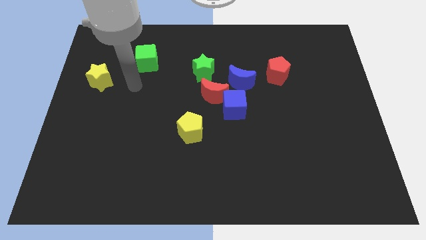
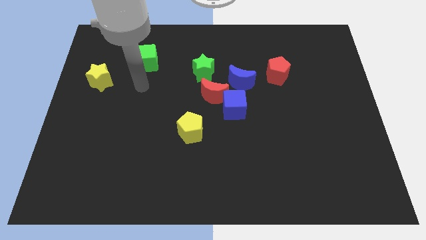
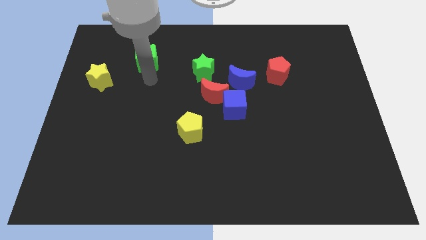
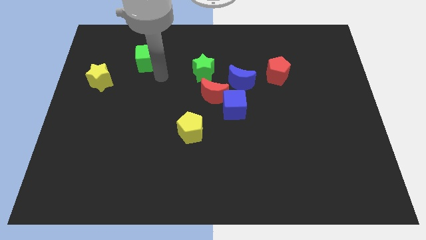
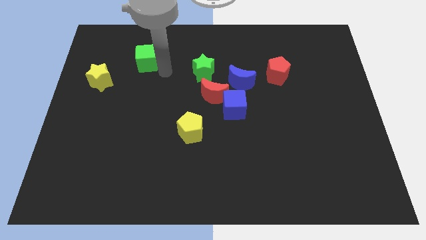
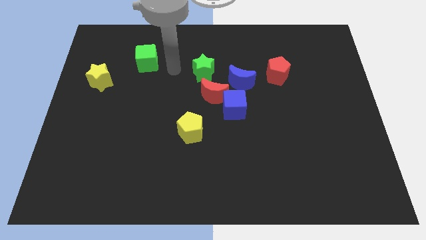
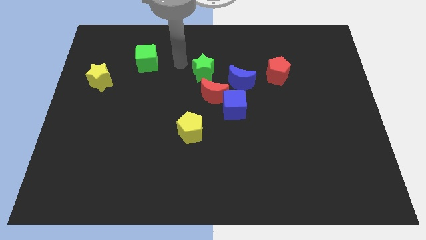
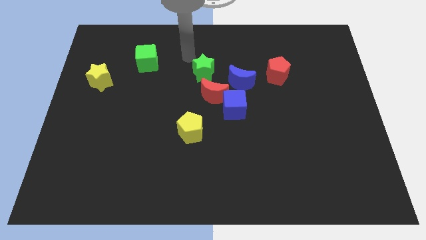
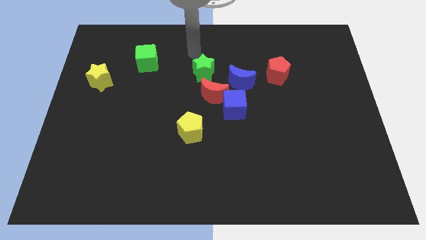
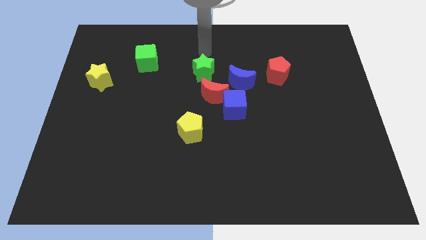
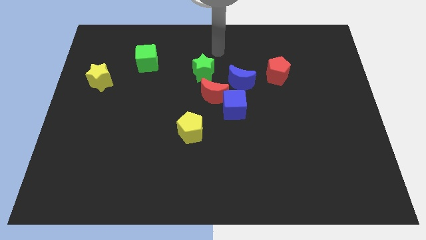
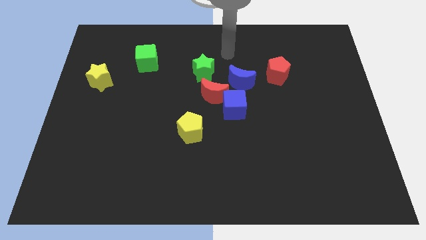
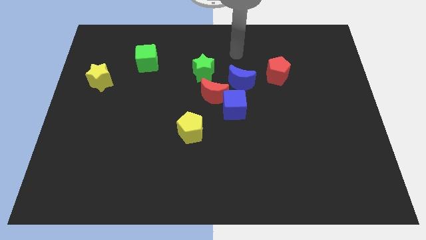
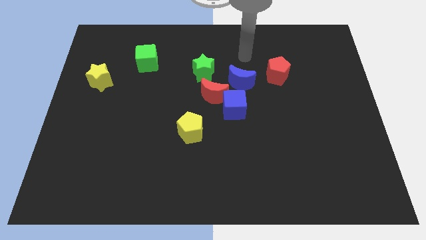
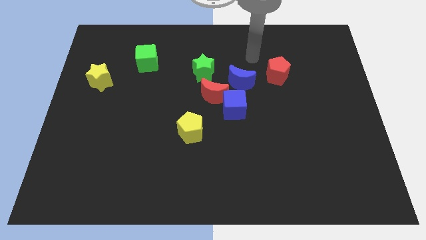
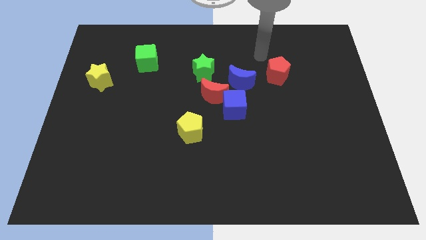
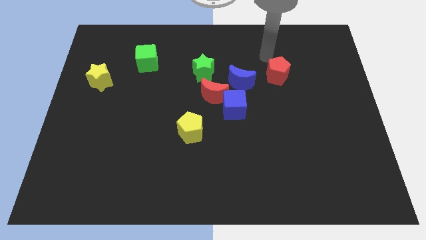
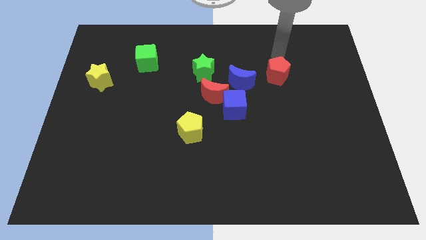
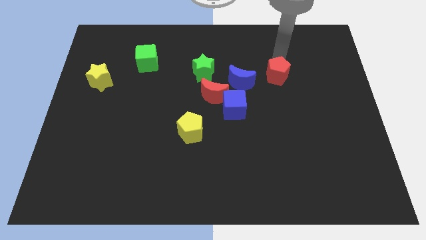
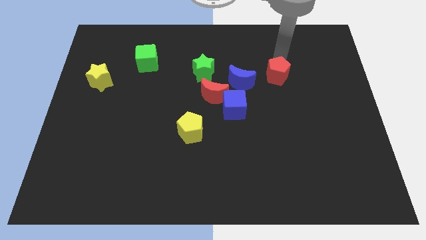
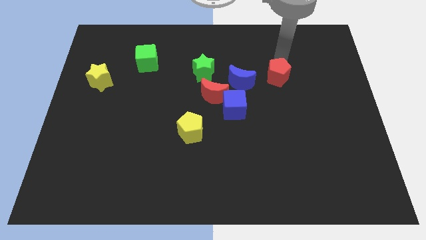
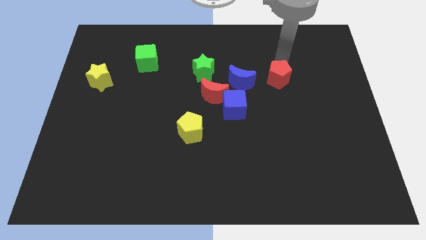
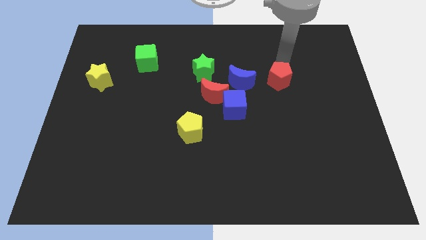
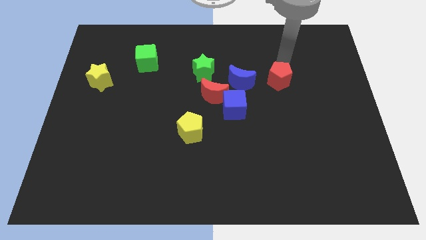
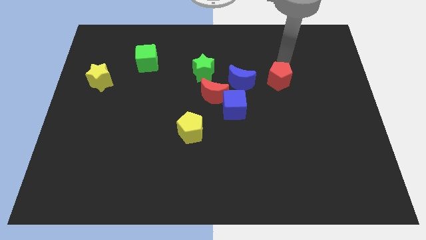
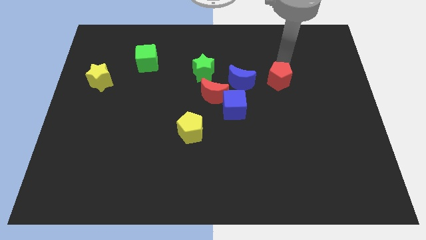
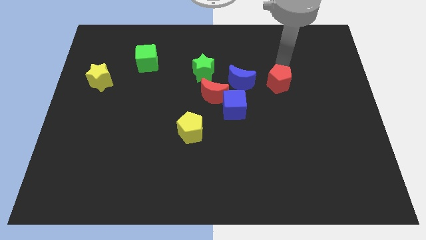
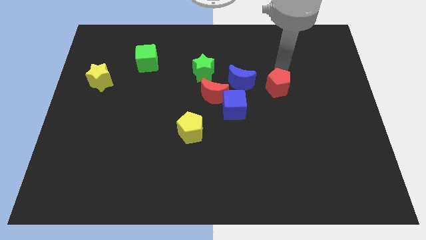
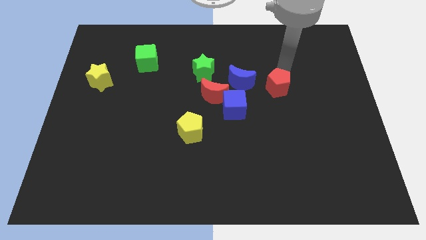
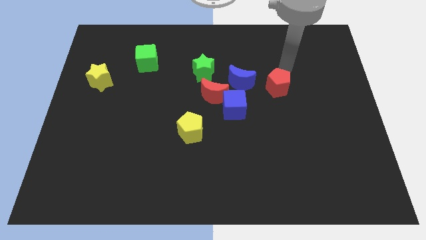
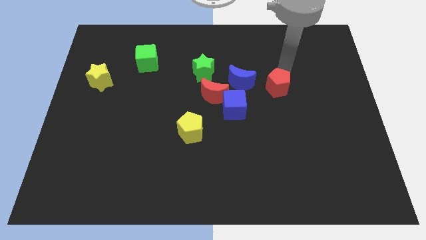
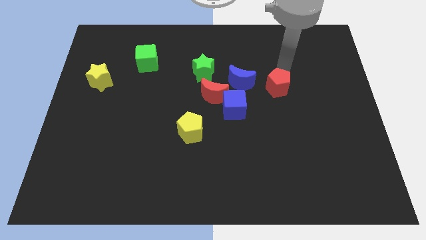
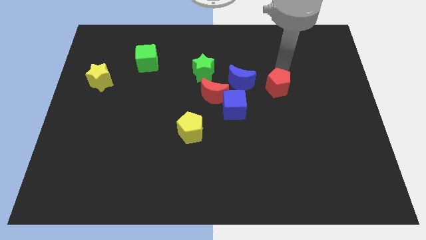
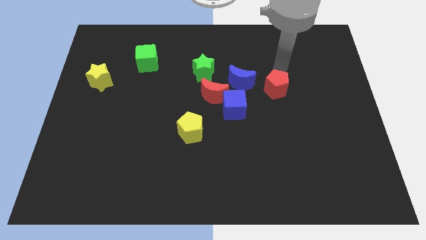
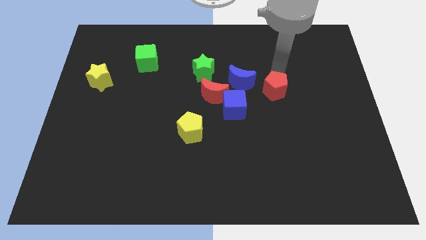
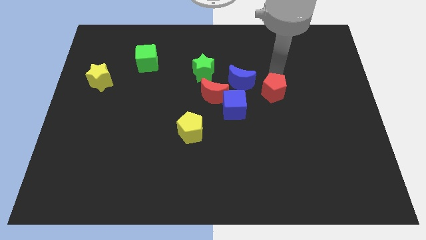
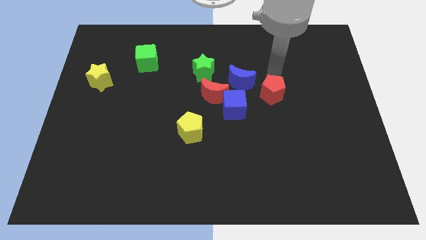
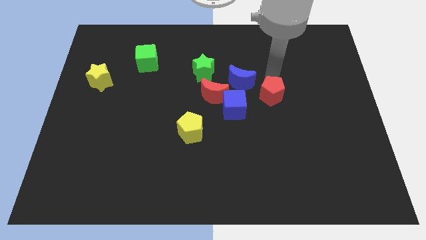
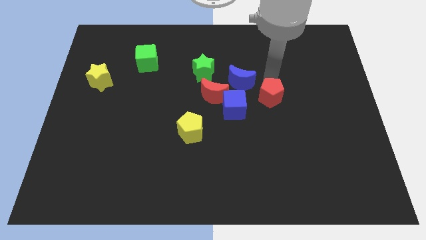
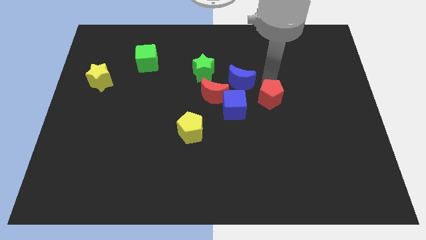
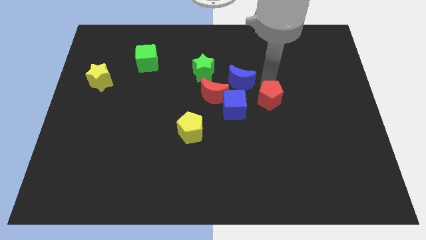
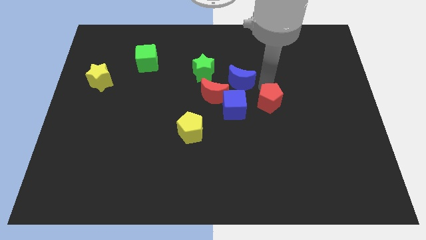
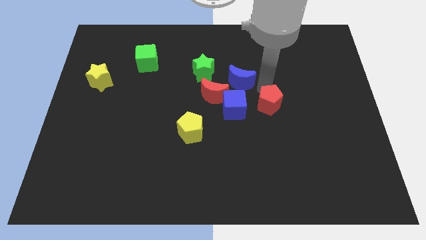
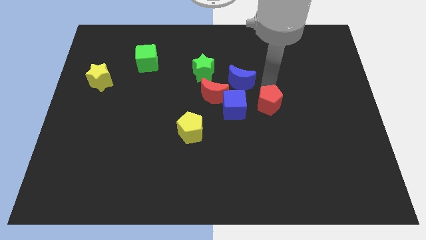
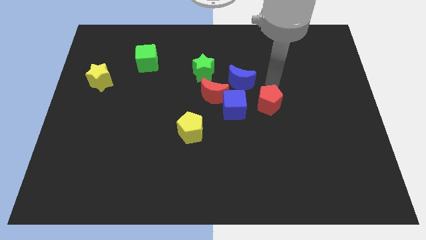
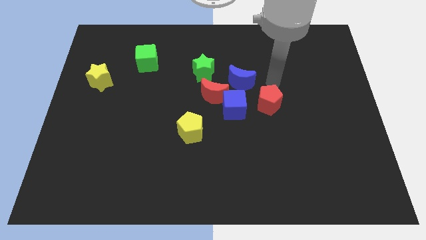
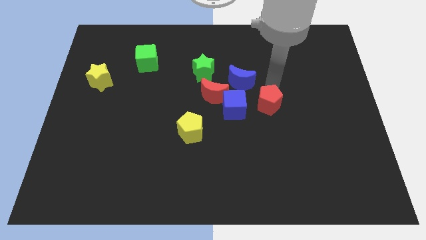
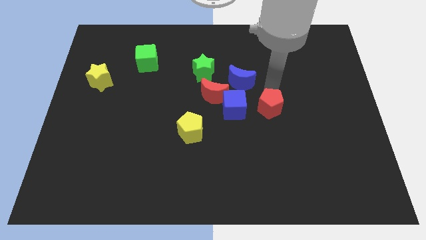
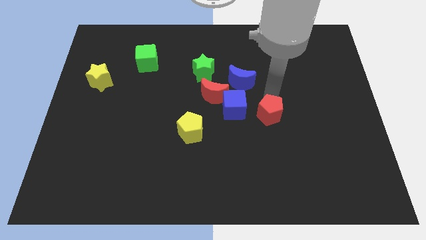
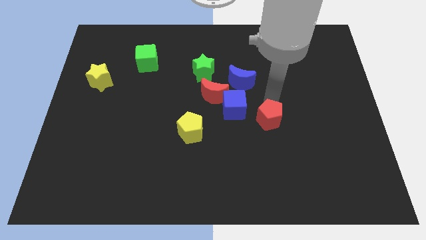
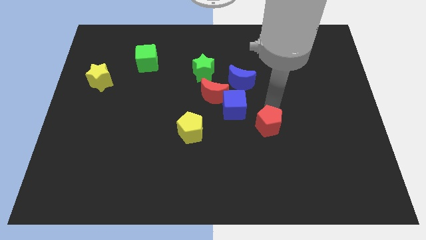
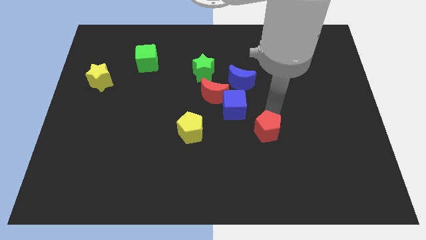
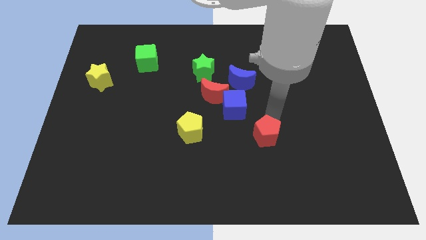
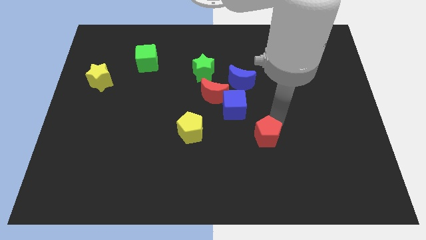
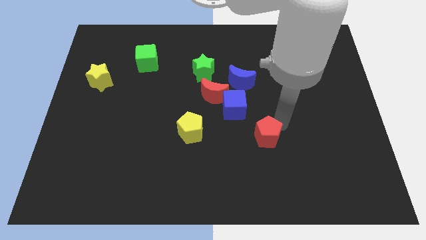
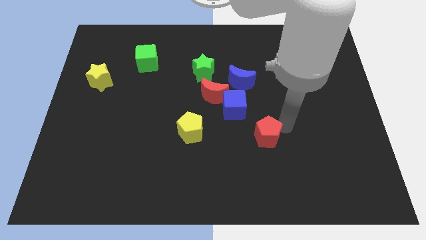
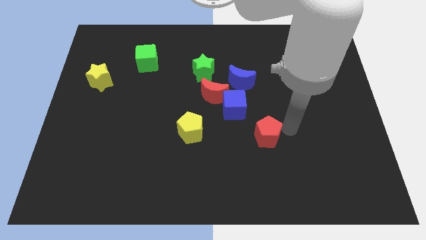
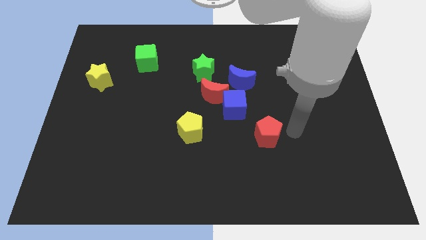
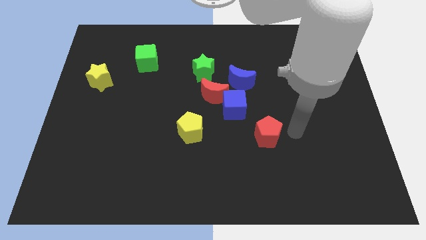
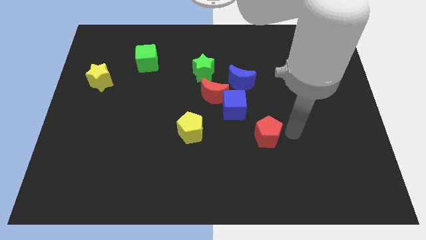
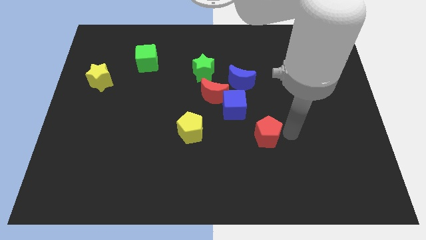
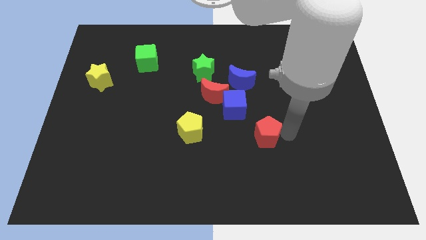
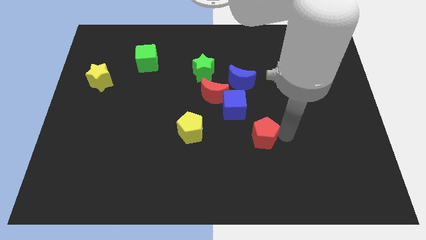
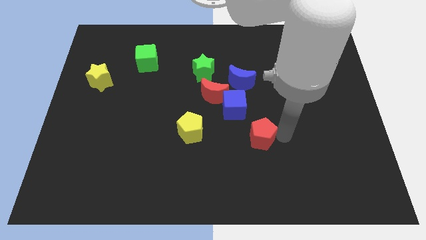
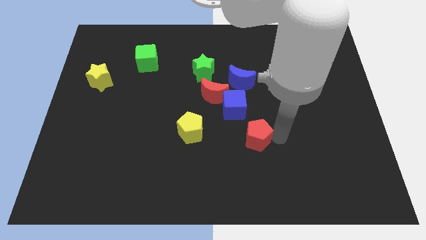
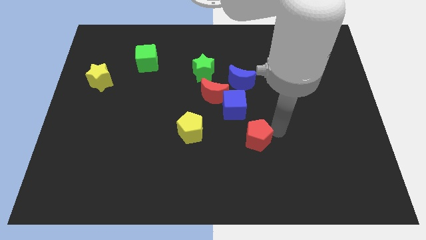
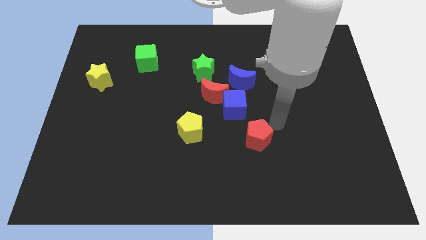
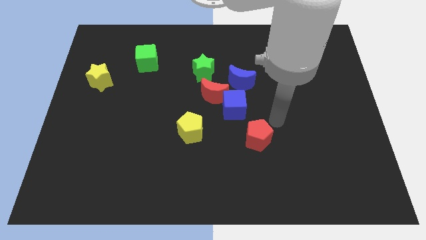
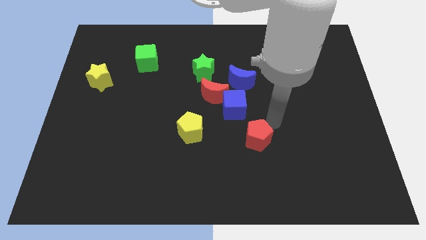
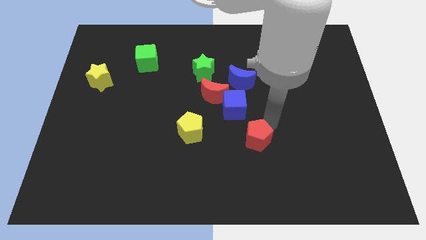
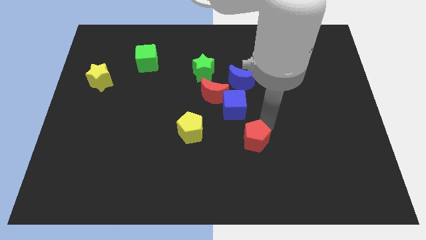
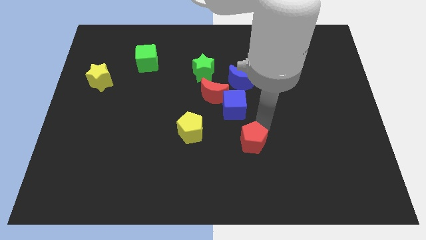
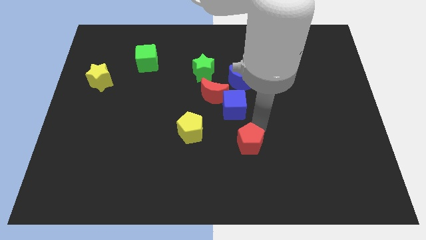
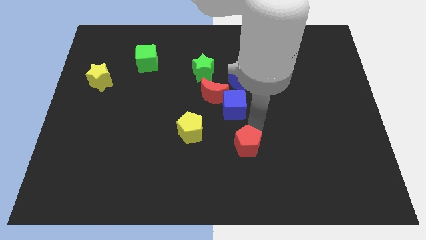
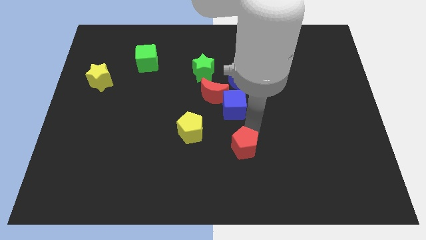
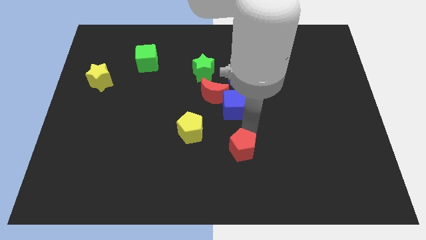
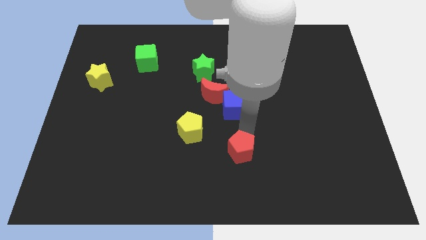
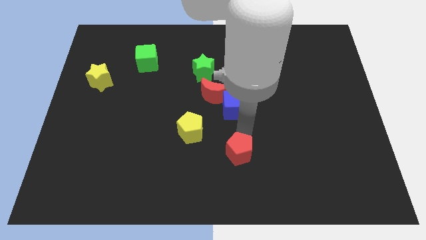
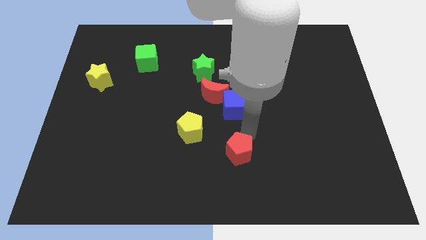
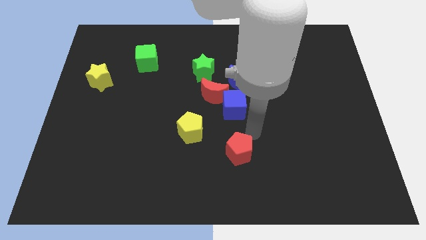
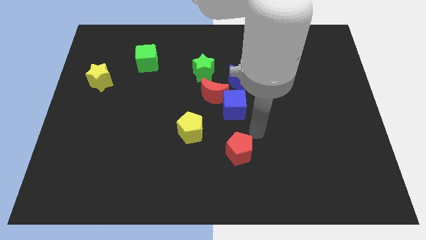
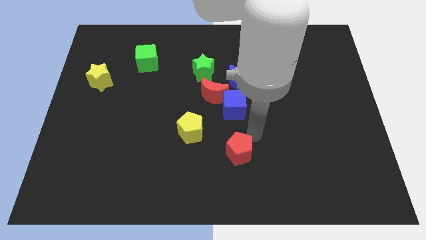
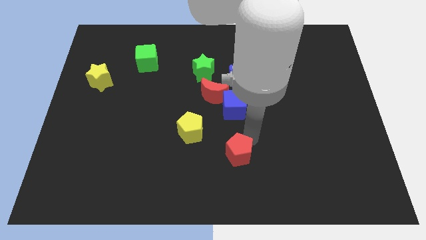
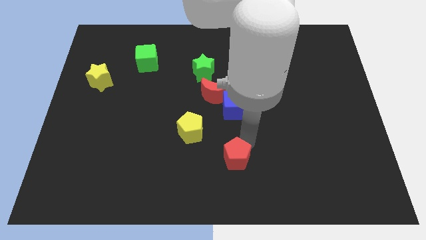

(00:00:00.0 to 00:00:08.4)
slide the red pentagon to the bottom side
